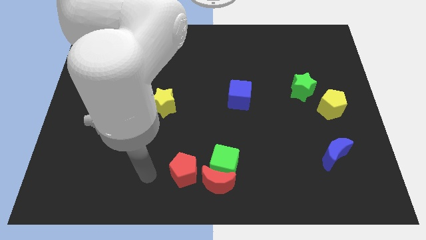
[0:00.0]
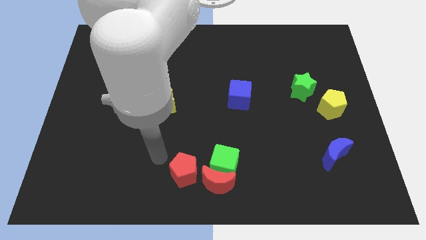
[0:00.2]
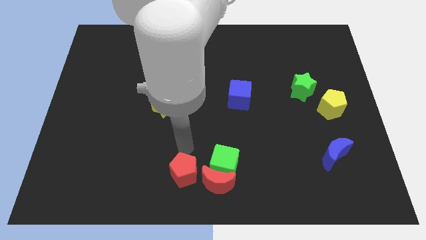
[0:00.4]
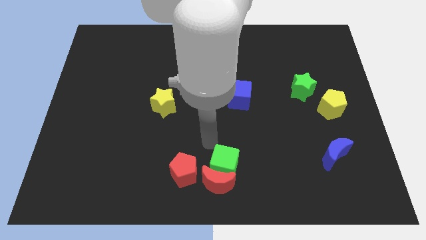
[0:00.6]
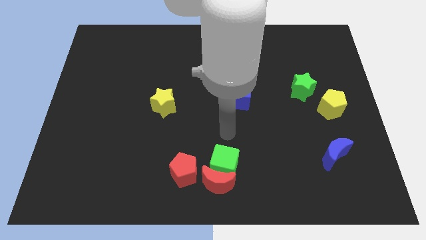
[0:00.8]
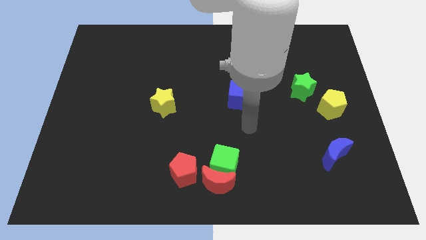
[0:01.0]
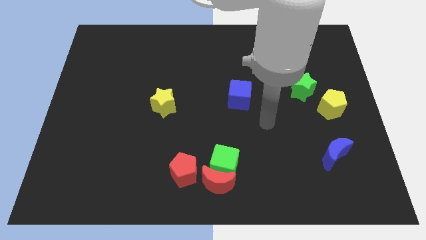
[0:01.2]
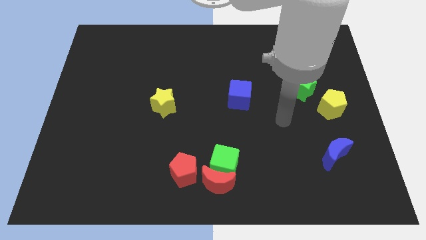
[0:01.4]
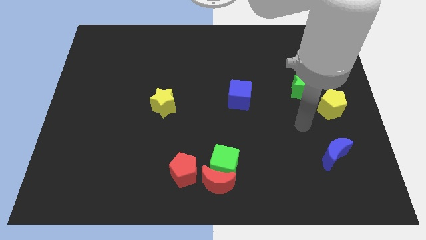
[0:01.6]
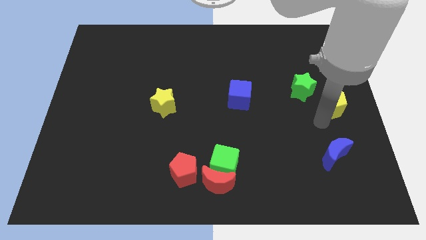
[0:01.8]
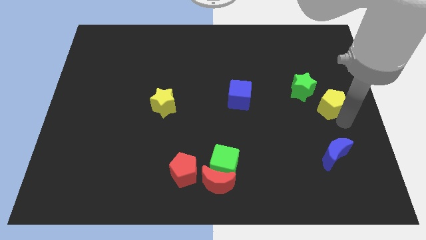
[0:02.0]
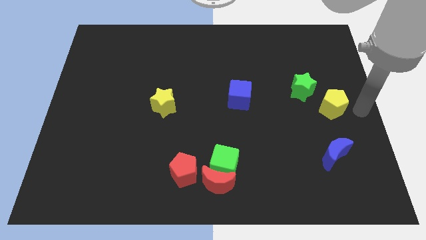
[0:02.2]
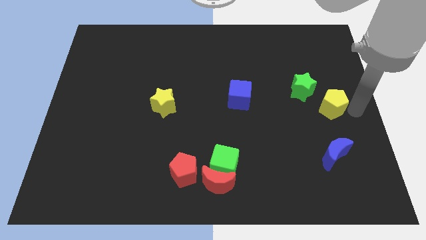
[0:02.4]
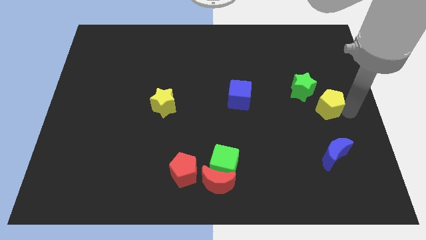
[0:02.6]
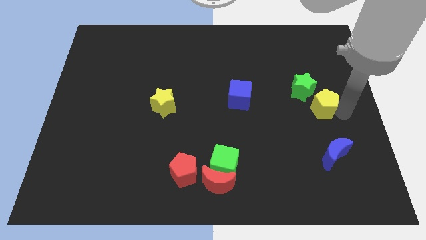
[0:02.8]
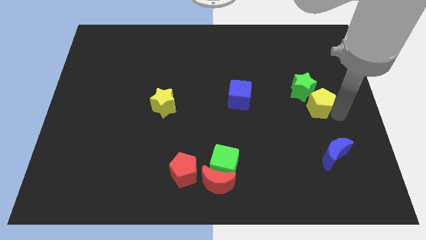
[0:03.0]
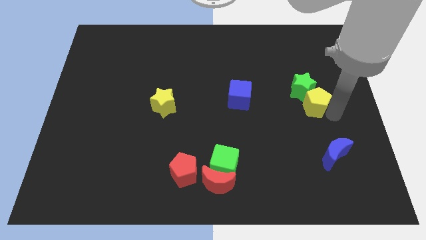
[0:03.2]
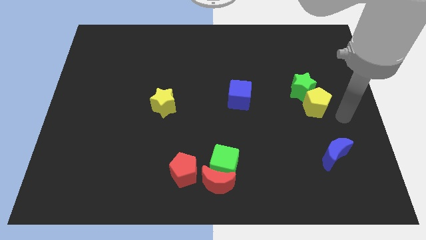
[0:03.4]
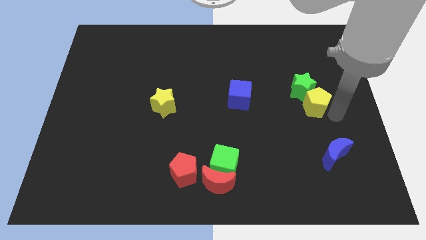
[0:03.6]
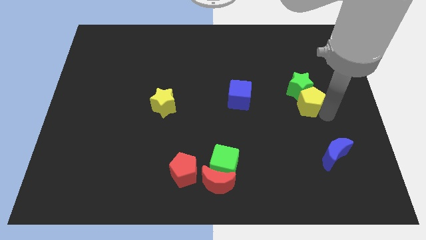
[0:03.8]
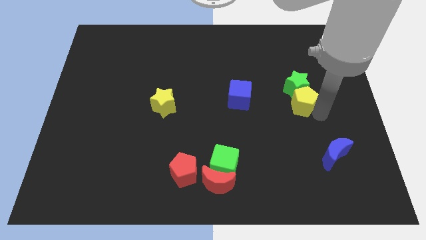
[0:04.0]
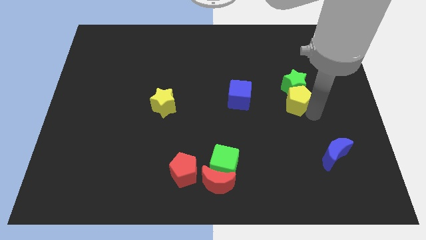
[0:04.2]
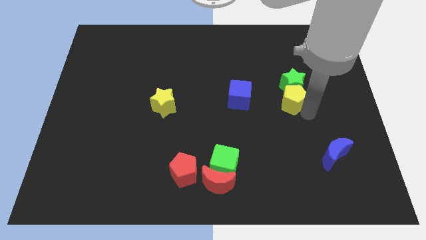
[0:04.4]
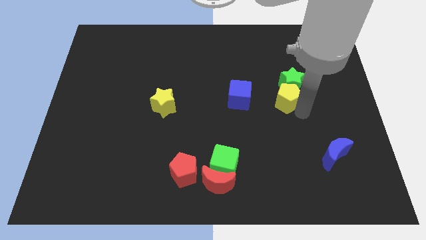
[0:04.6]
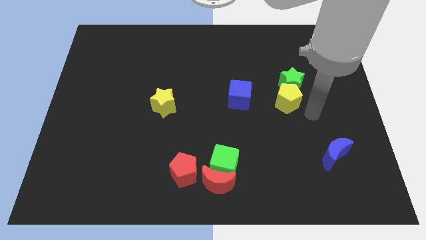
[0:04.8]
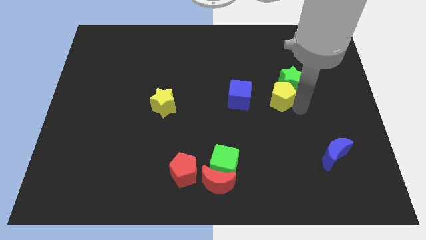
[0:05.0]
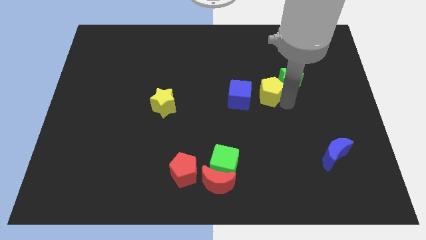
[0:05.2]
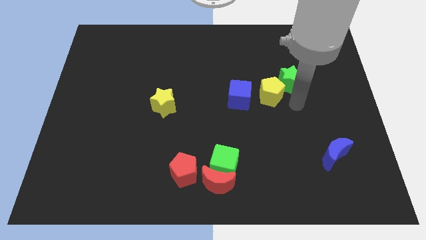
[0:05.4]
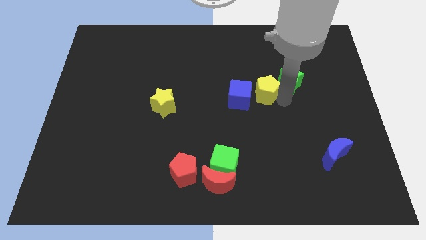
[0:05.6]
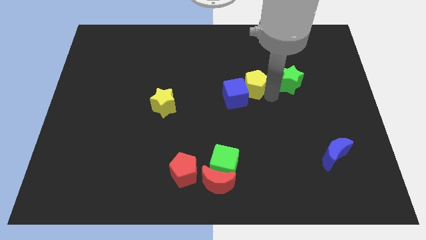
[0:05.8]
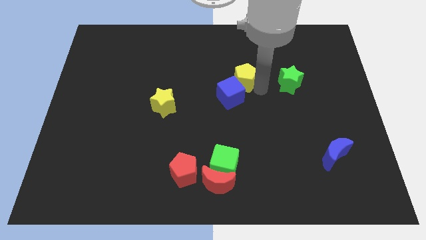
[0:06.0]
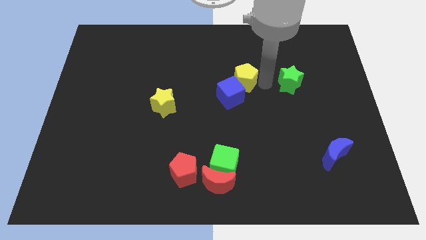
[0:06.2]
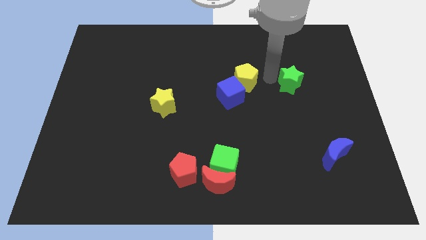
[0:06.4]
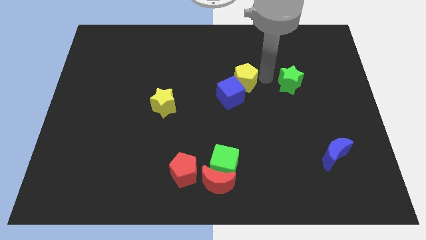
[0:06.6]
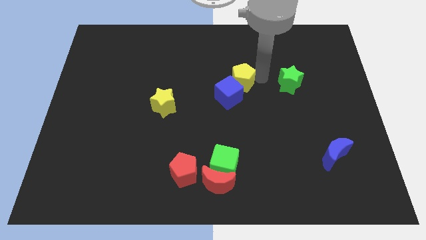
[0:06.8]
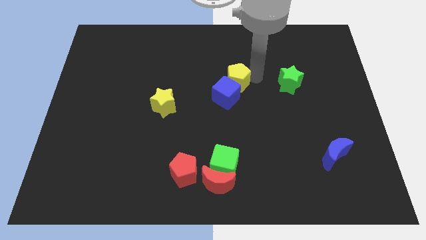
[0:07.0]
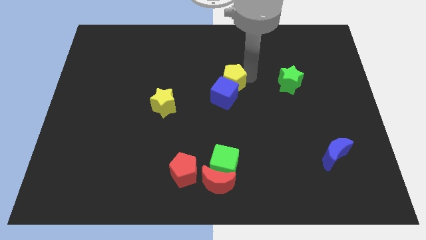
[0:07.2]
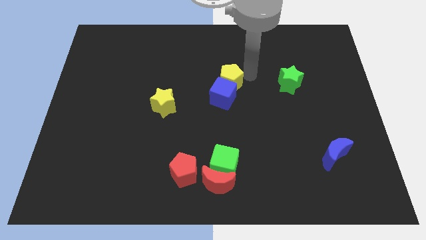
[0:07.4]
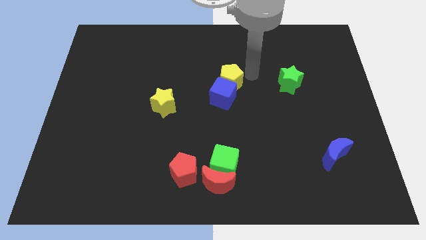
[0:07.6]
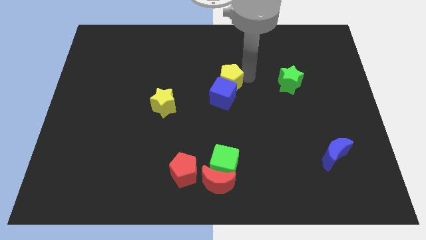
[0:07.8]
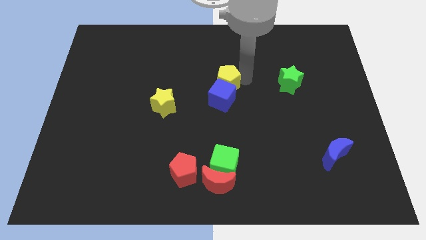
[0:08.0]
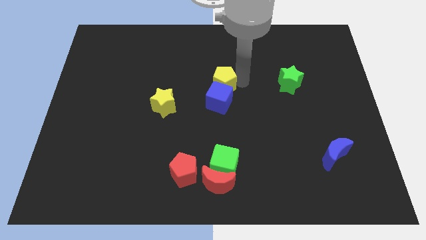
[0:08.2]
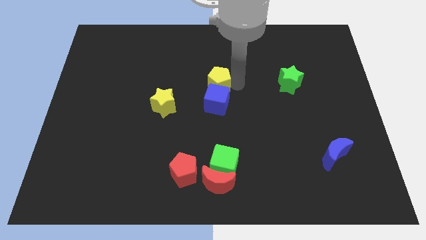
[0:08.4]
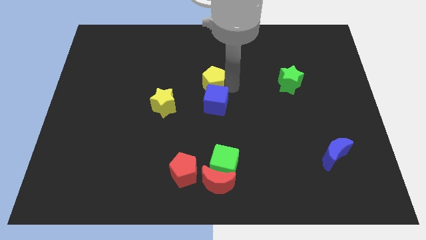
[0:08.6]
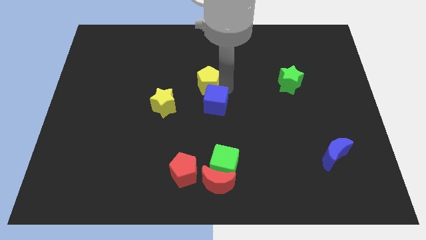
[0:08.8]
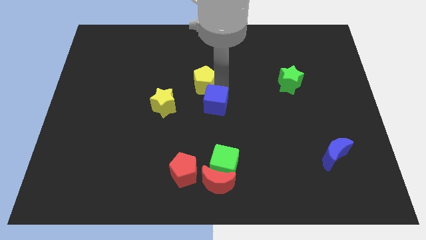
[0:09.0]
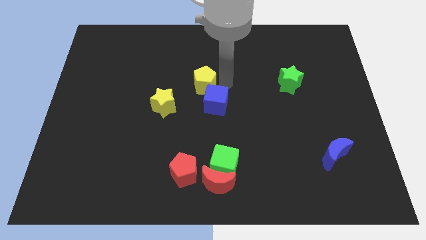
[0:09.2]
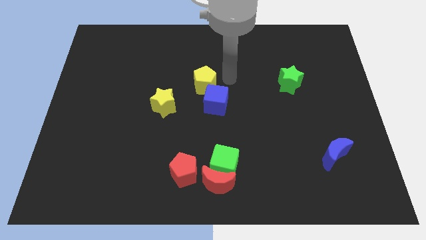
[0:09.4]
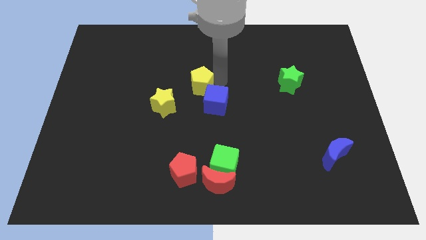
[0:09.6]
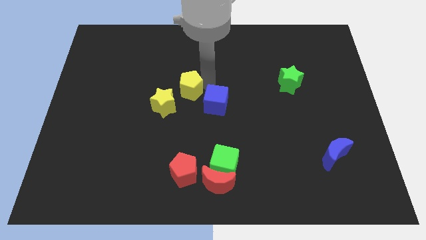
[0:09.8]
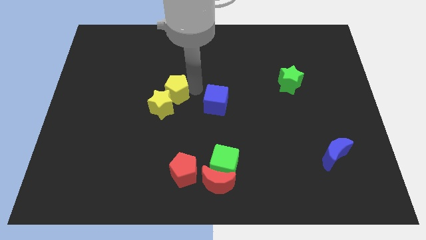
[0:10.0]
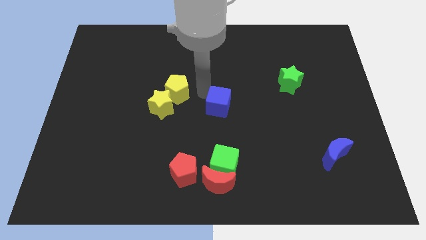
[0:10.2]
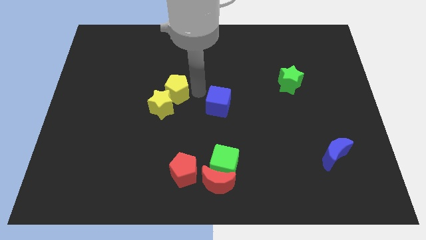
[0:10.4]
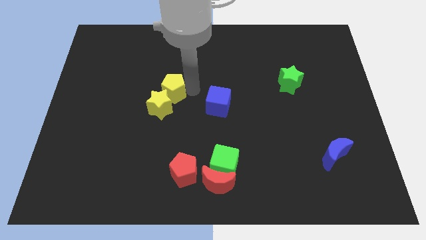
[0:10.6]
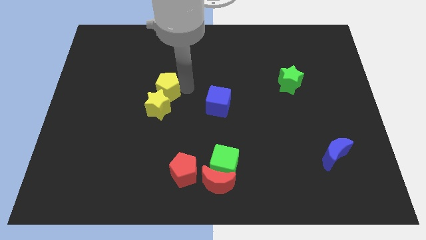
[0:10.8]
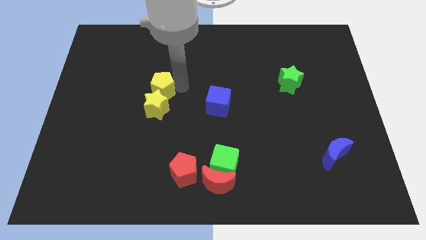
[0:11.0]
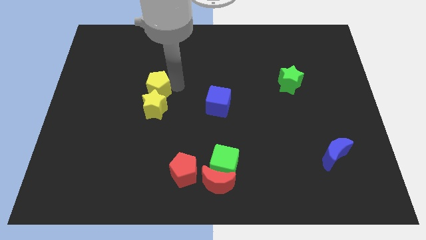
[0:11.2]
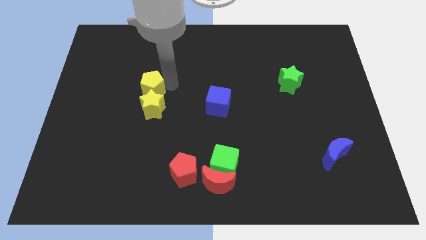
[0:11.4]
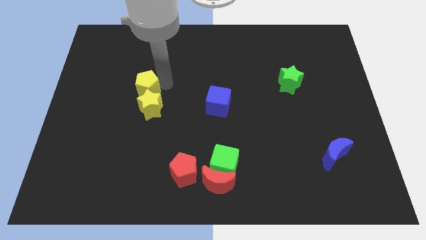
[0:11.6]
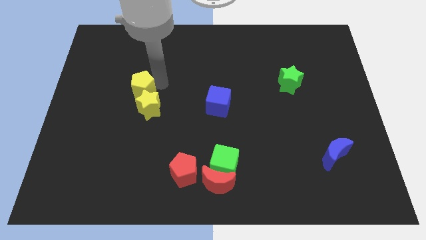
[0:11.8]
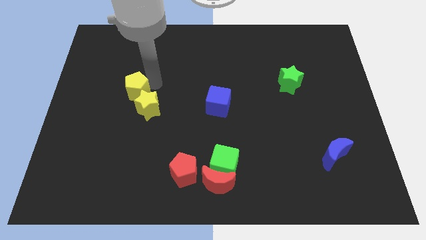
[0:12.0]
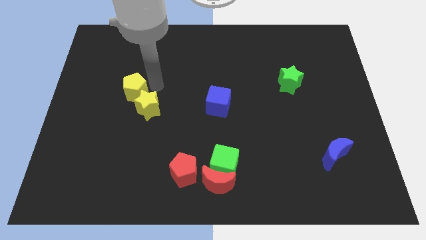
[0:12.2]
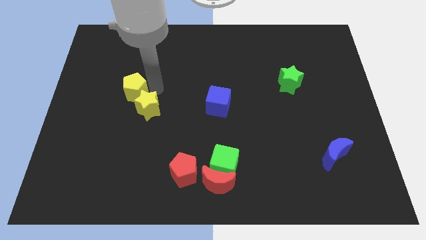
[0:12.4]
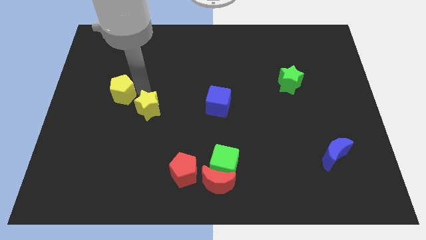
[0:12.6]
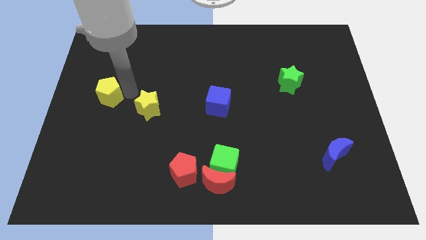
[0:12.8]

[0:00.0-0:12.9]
slide the yellow pentagon to the center left
